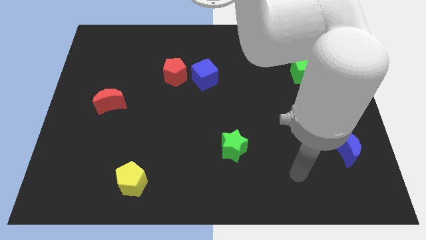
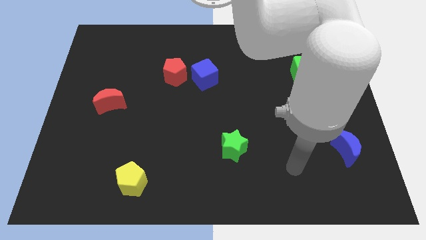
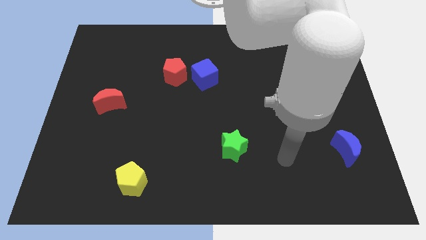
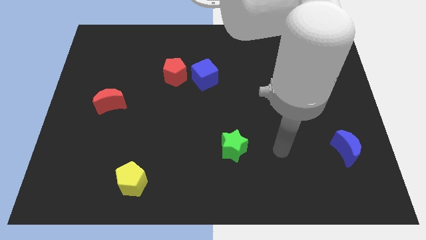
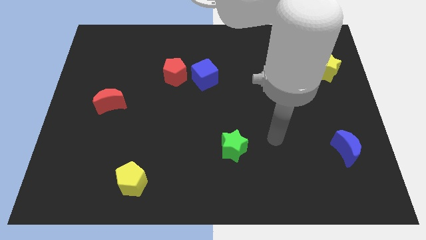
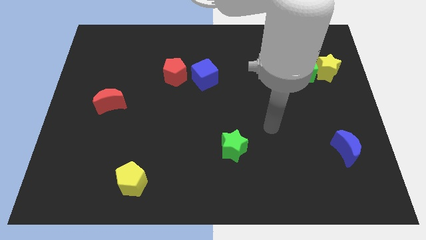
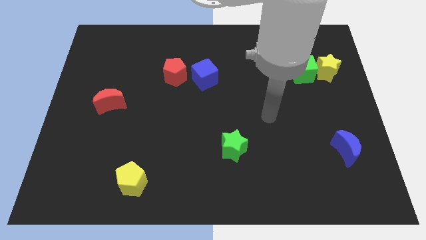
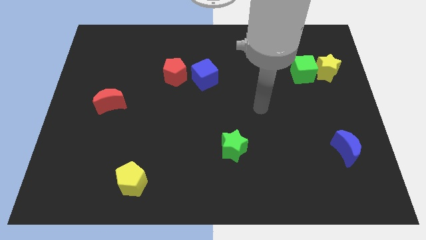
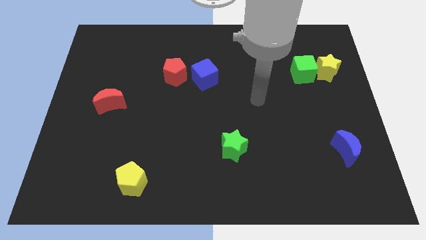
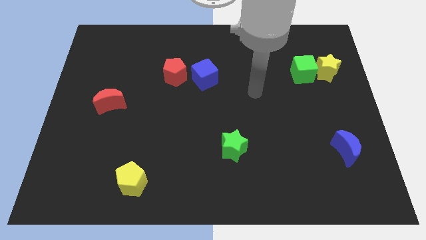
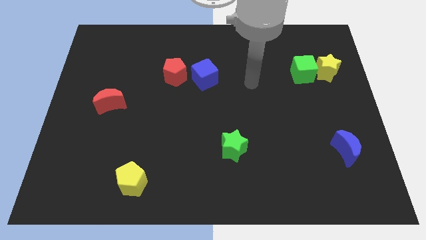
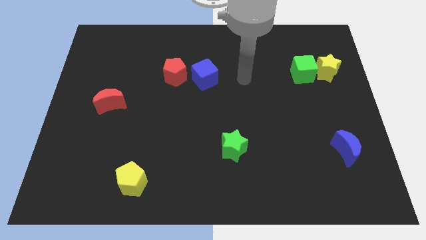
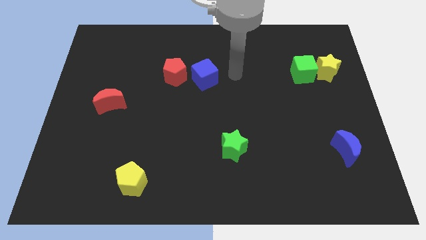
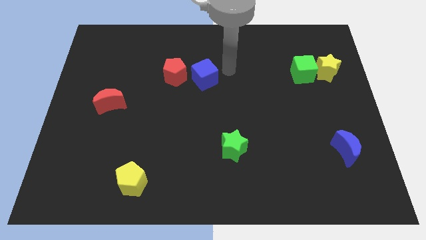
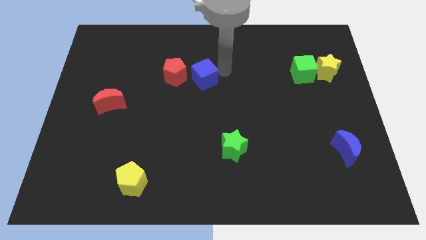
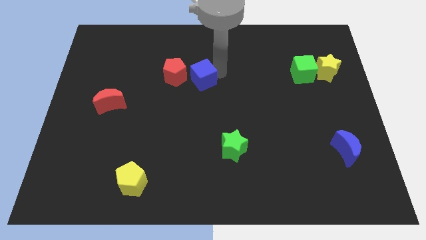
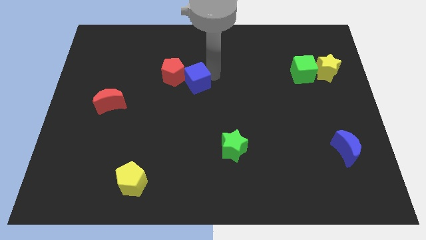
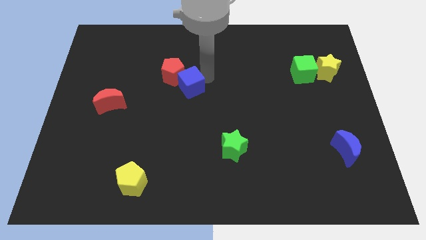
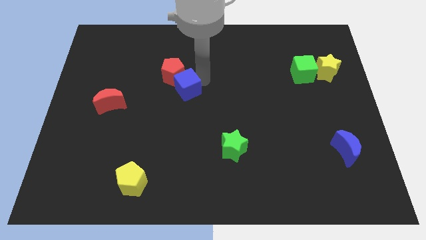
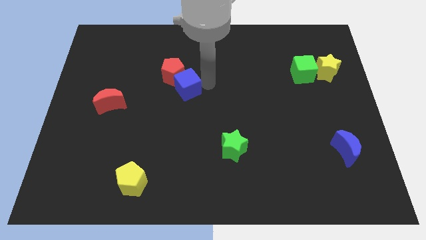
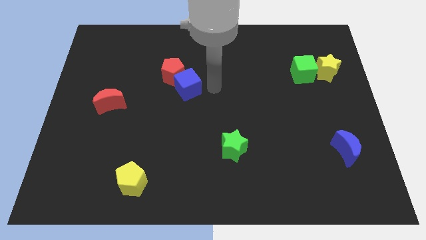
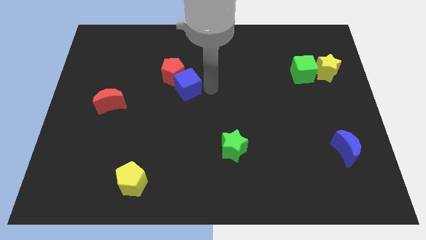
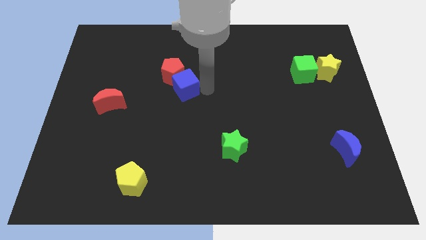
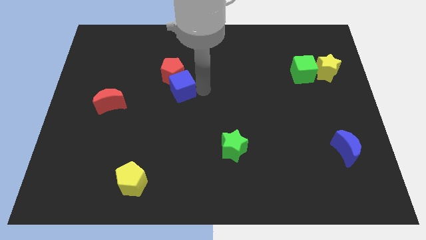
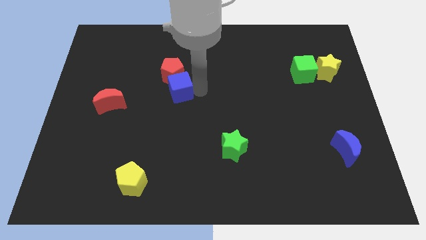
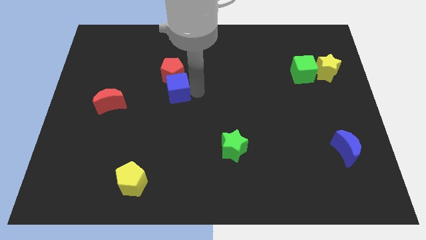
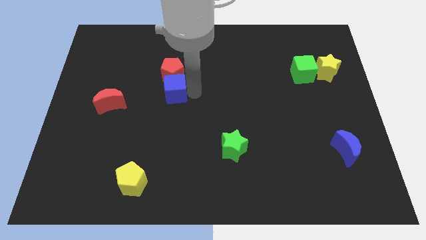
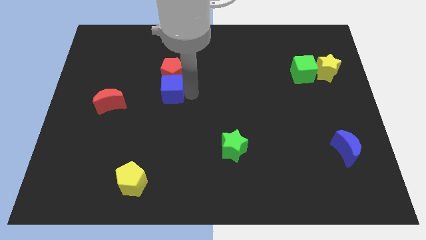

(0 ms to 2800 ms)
slightly push the blue cube left

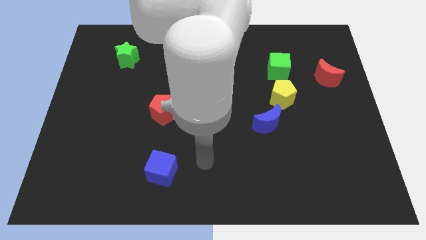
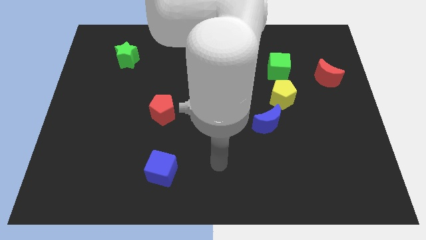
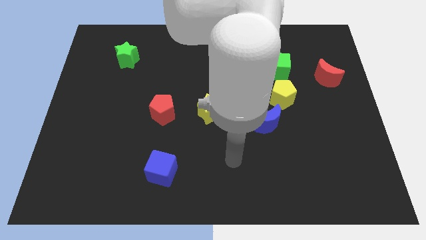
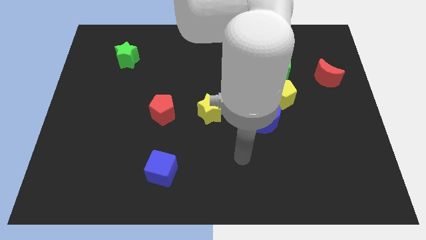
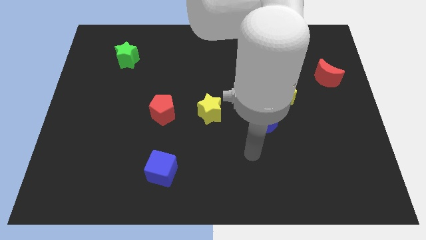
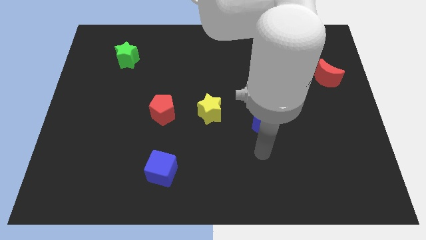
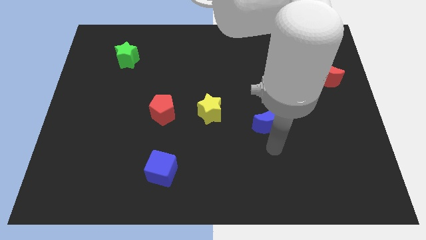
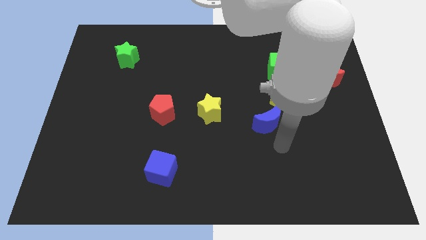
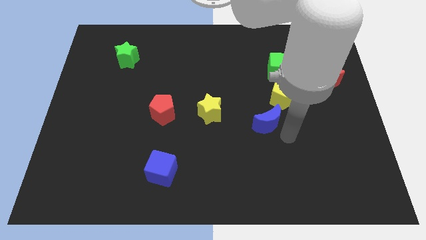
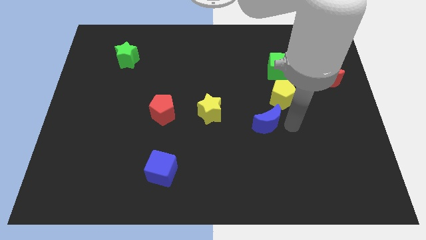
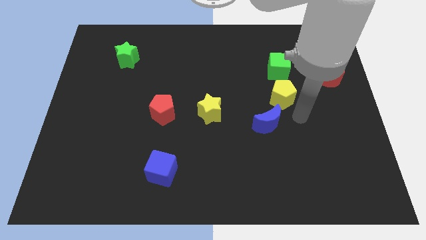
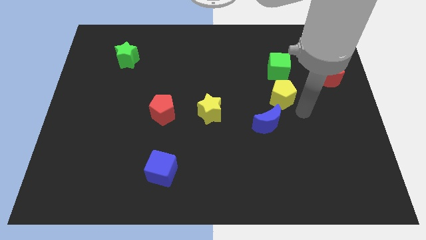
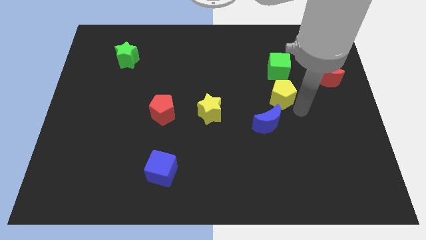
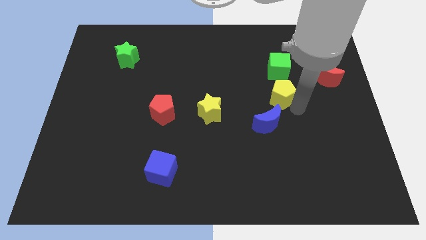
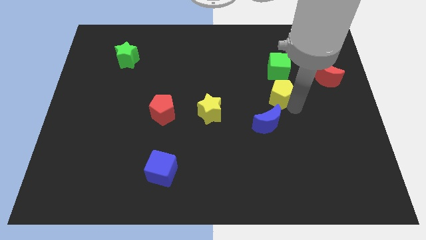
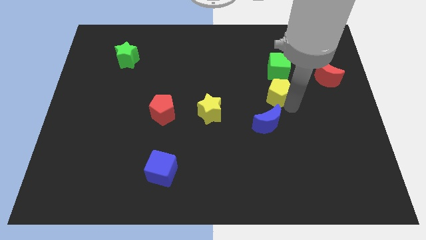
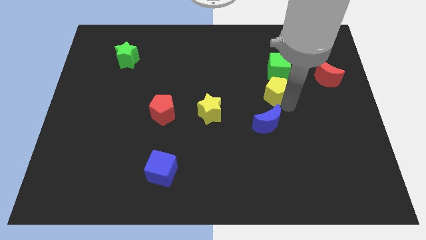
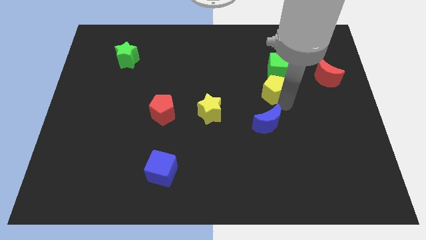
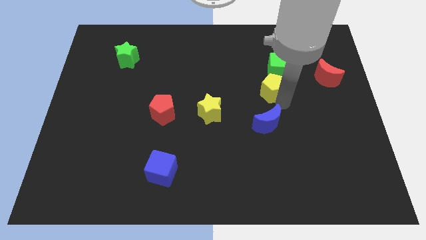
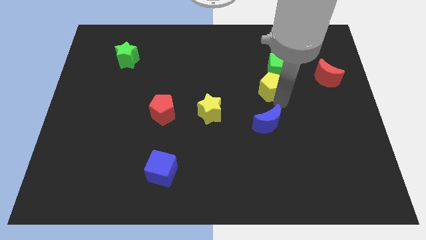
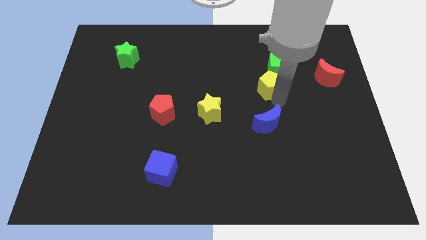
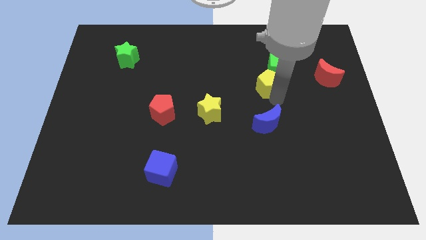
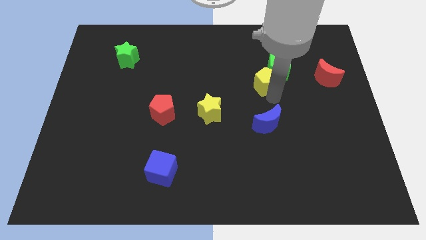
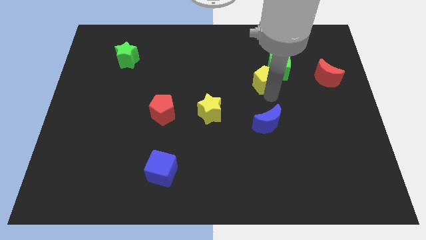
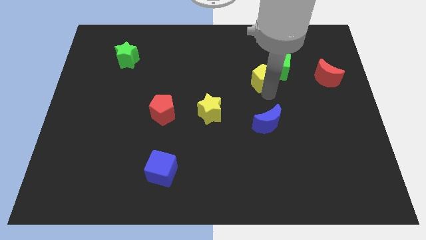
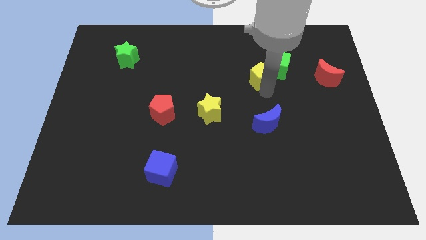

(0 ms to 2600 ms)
push the yellow pentagon slightly upwards and left diagonally

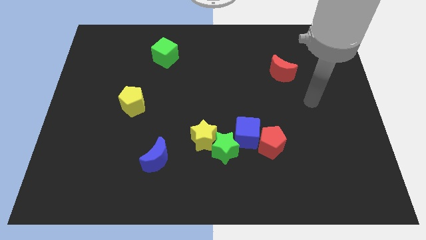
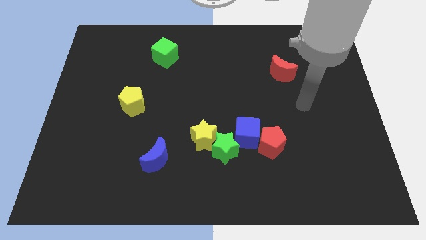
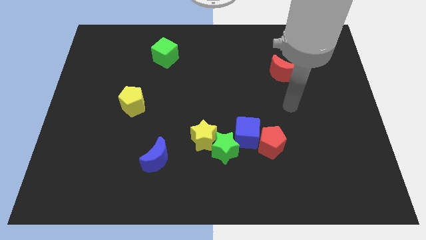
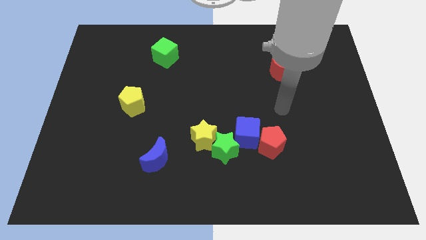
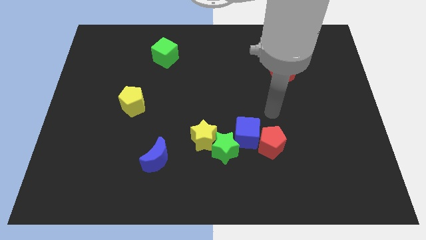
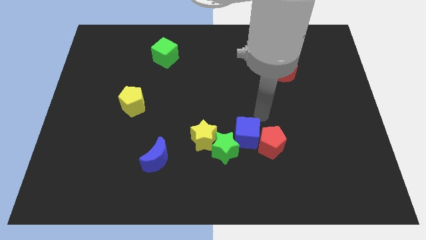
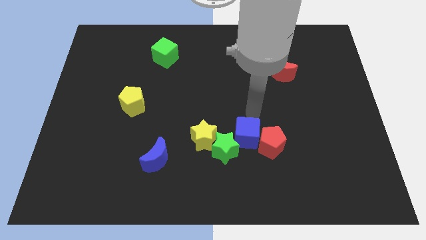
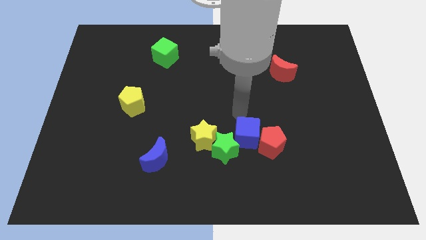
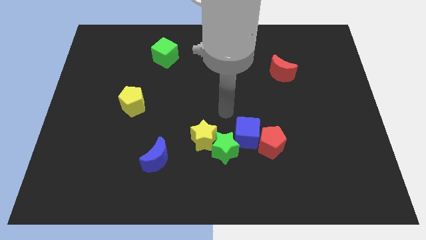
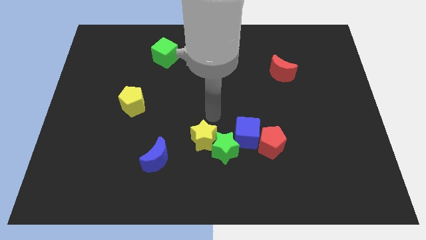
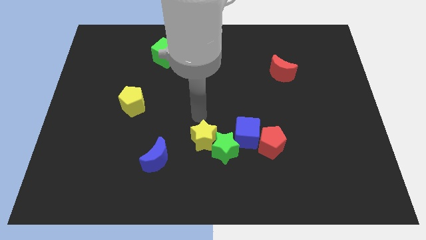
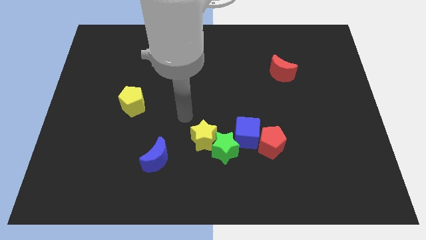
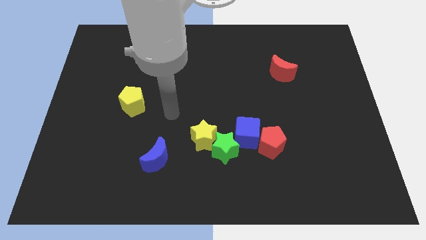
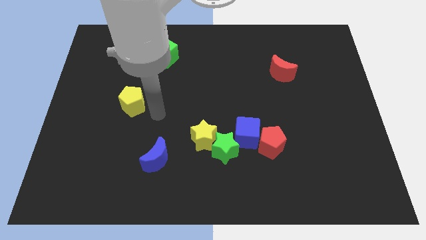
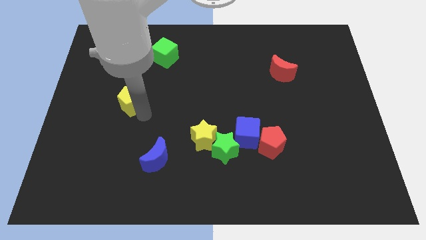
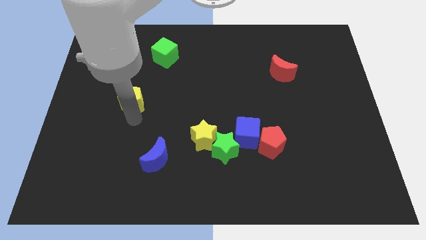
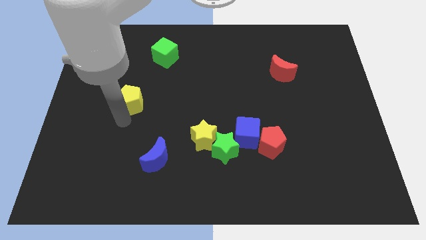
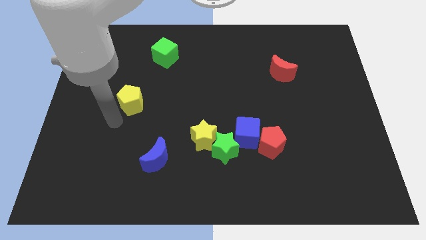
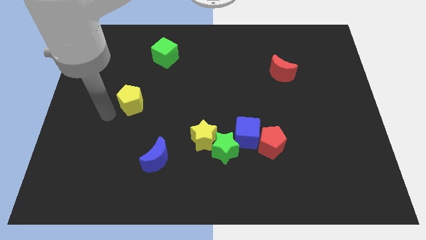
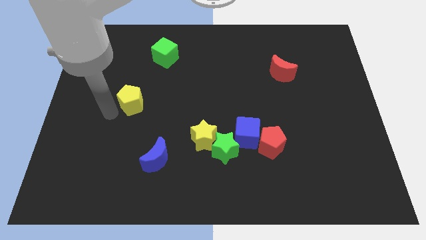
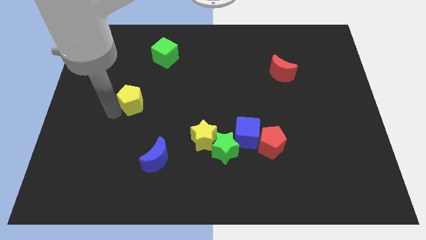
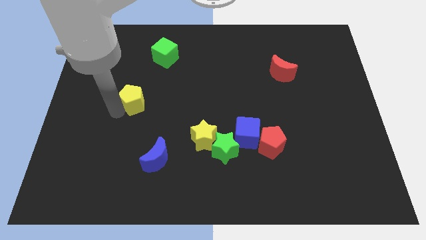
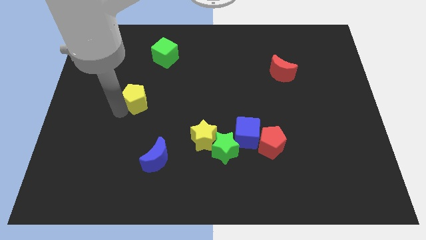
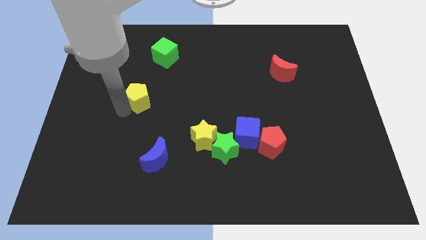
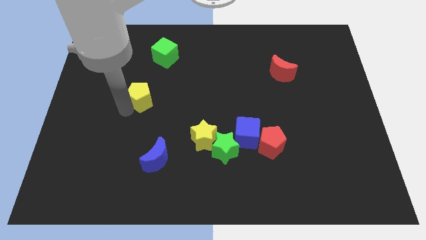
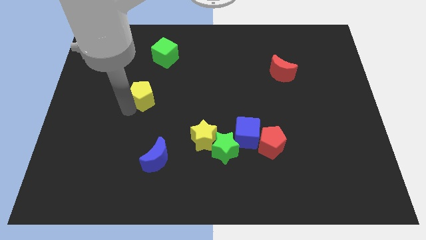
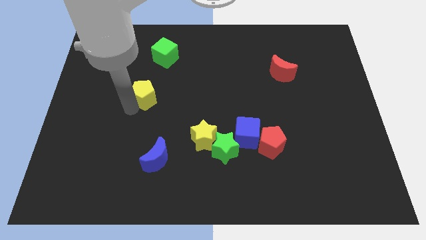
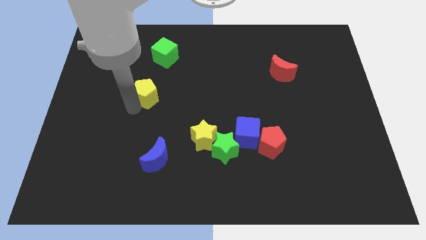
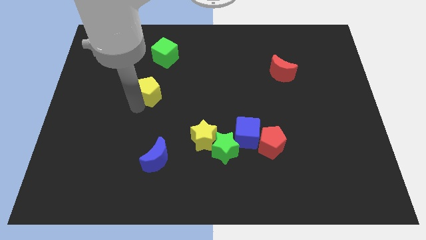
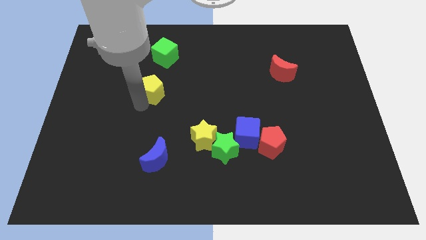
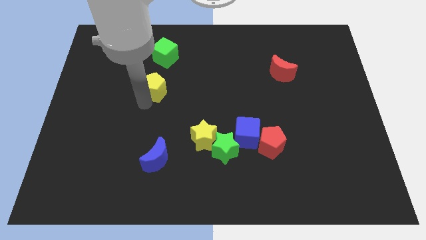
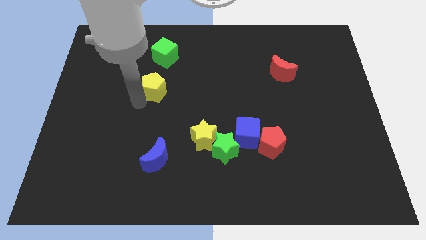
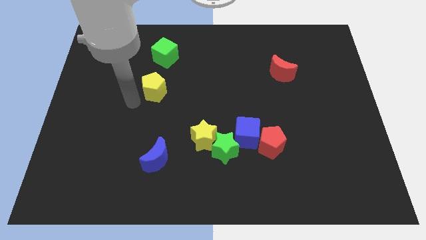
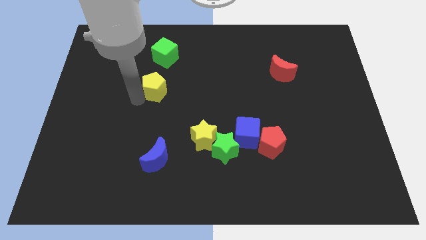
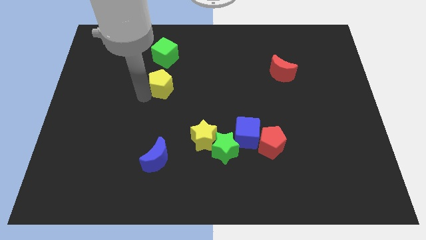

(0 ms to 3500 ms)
slightly push the yellow pentagon up and then to the right
